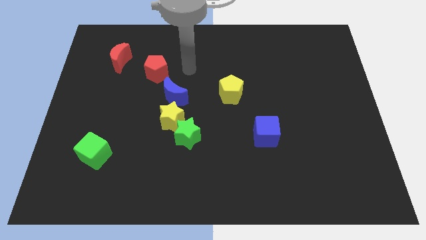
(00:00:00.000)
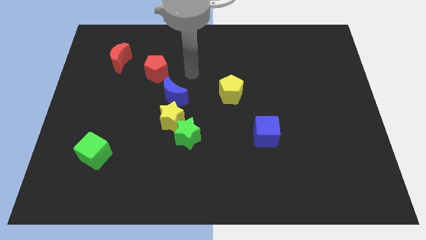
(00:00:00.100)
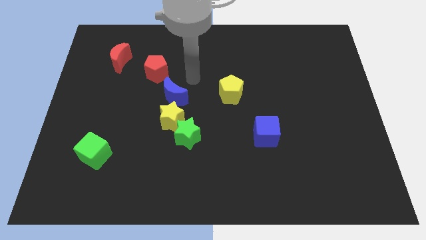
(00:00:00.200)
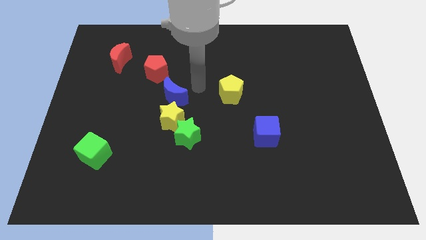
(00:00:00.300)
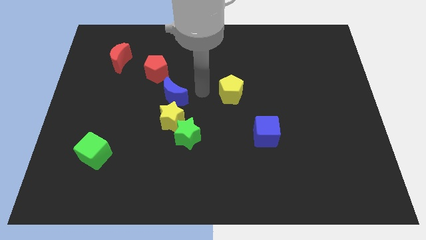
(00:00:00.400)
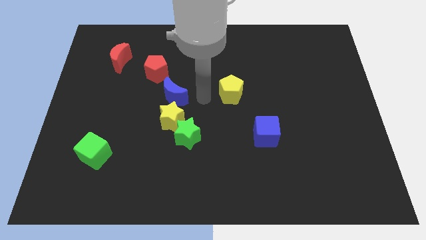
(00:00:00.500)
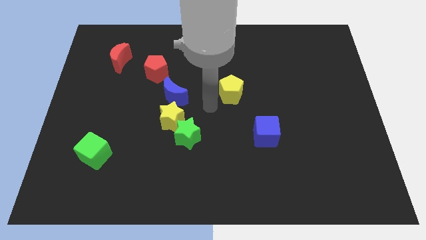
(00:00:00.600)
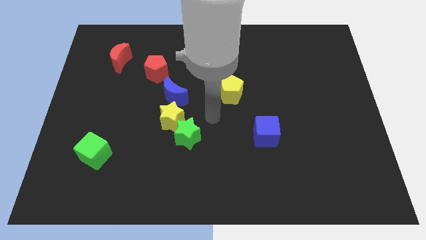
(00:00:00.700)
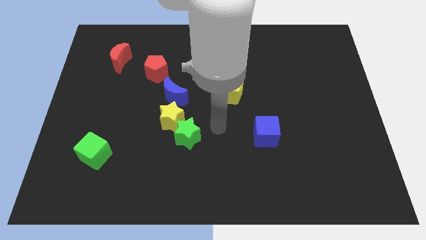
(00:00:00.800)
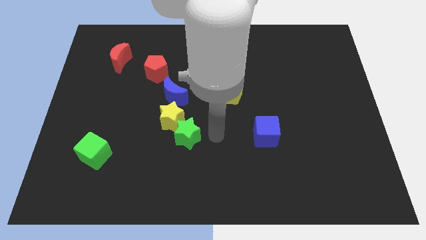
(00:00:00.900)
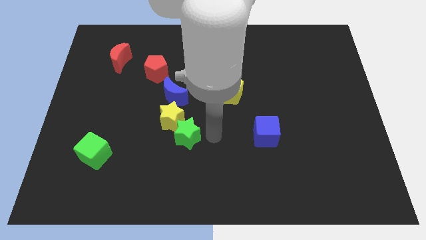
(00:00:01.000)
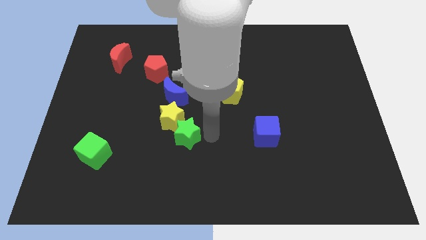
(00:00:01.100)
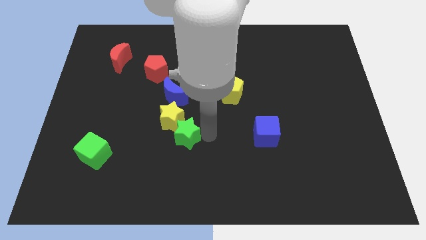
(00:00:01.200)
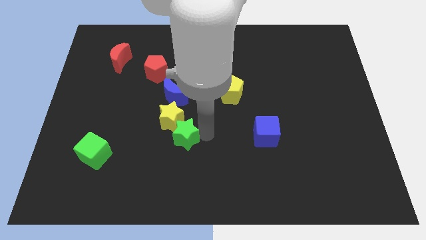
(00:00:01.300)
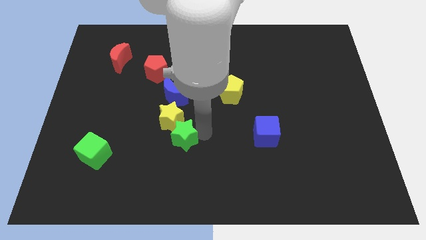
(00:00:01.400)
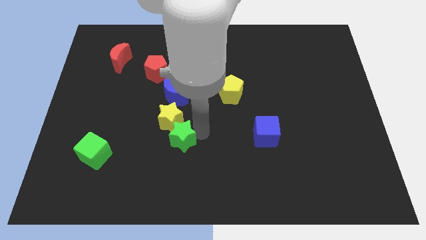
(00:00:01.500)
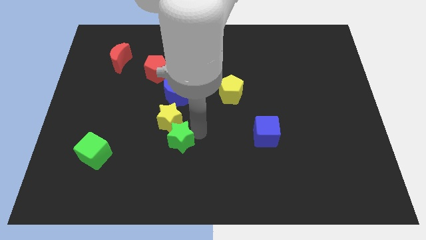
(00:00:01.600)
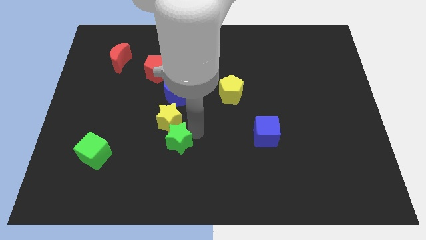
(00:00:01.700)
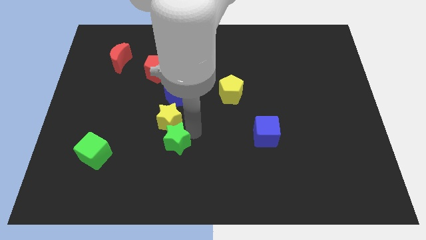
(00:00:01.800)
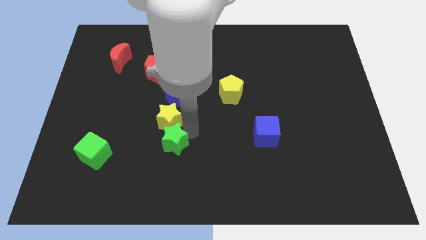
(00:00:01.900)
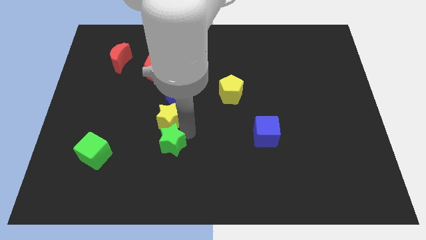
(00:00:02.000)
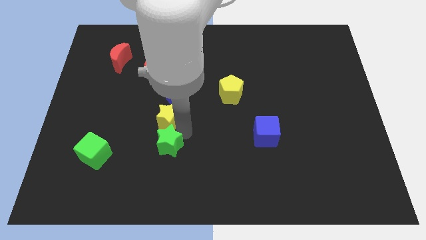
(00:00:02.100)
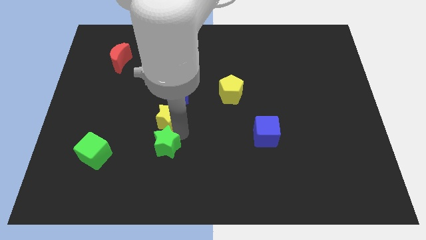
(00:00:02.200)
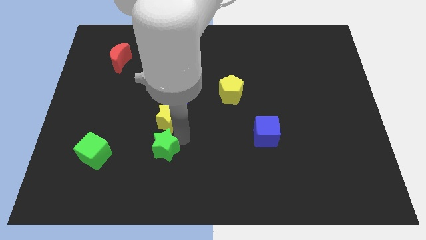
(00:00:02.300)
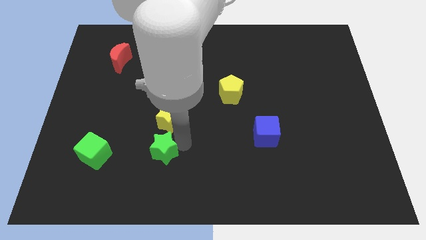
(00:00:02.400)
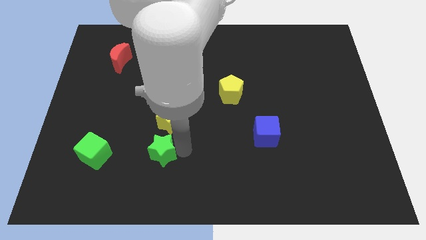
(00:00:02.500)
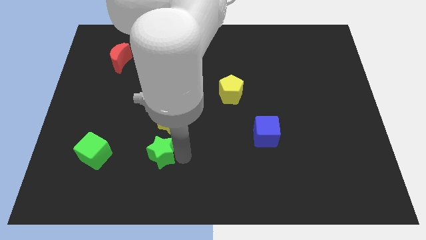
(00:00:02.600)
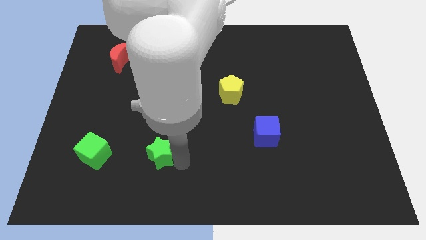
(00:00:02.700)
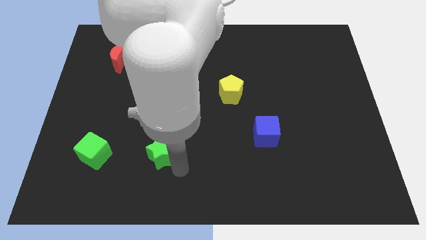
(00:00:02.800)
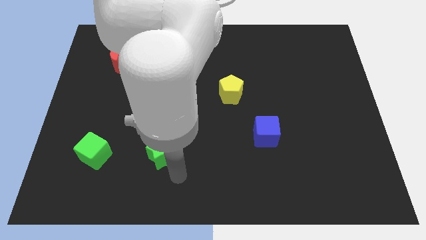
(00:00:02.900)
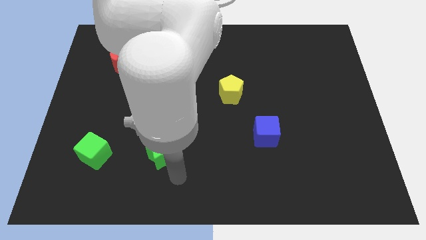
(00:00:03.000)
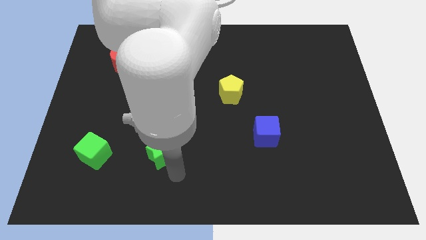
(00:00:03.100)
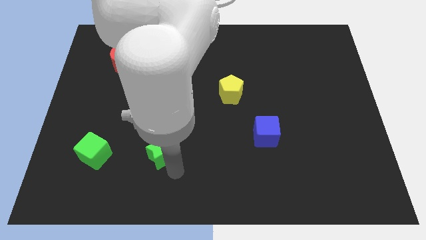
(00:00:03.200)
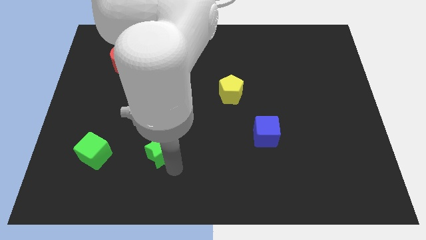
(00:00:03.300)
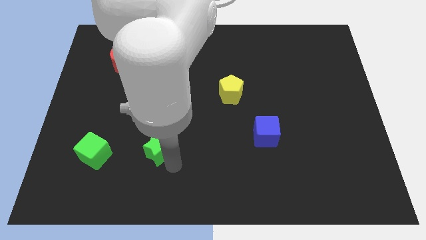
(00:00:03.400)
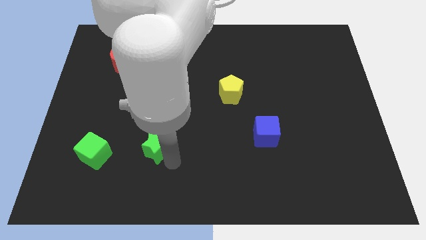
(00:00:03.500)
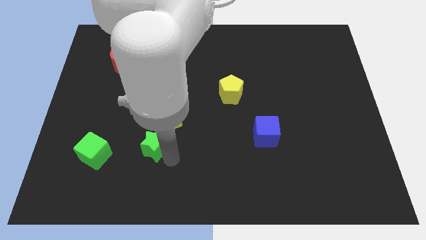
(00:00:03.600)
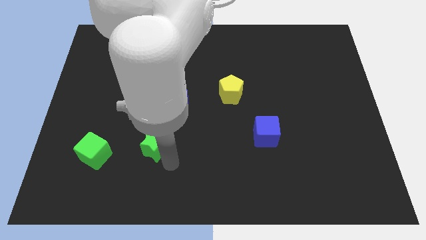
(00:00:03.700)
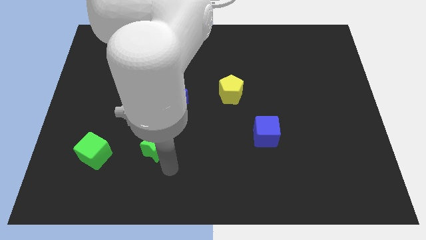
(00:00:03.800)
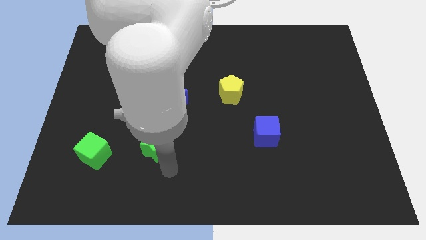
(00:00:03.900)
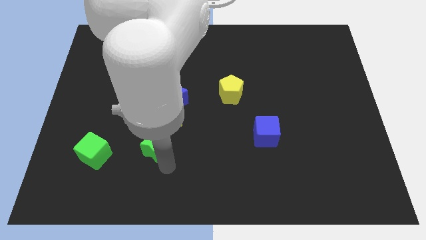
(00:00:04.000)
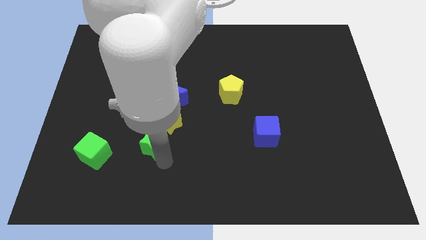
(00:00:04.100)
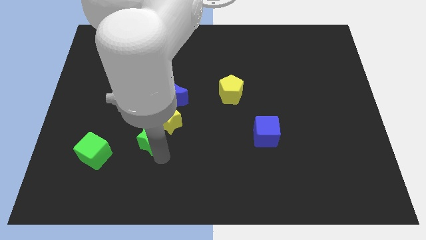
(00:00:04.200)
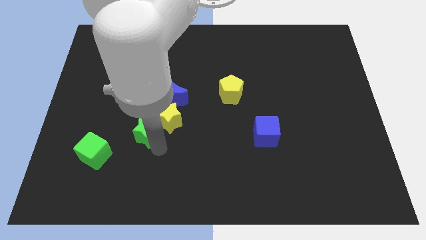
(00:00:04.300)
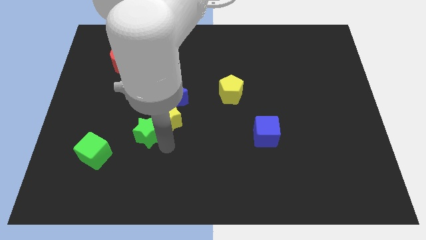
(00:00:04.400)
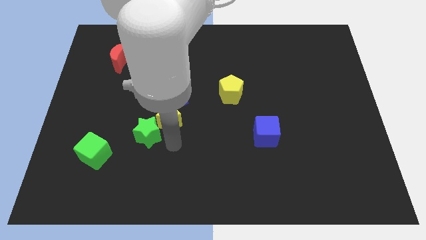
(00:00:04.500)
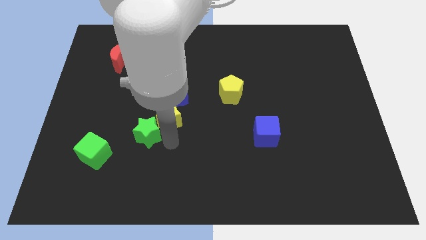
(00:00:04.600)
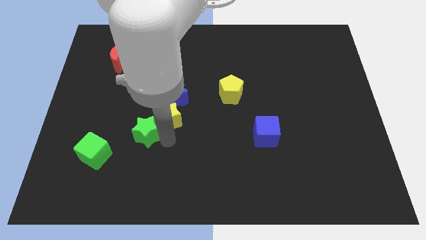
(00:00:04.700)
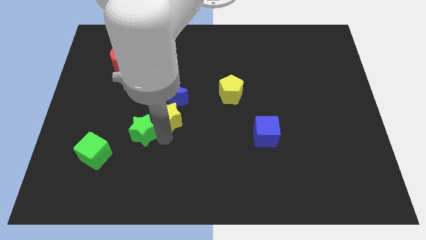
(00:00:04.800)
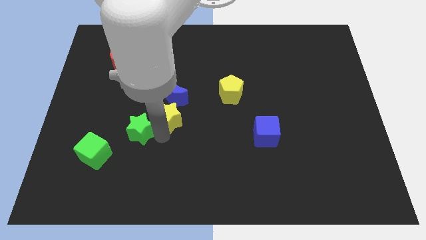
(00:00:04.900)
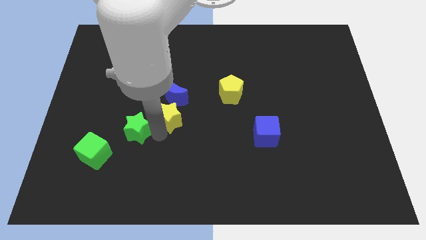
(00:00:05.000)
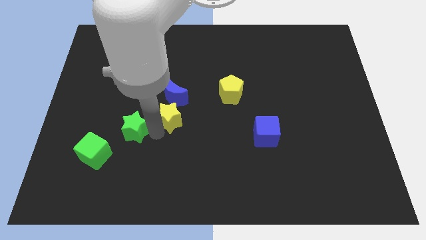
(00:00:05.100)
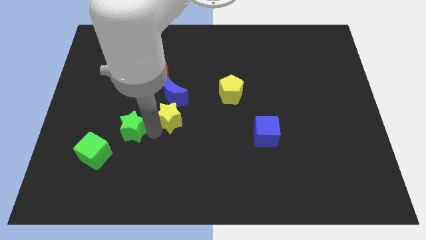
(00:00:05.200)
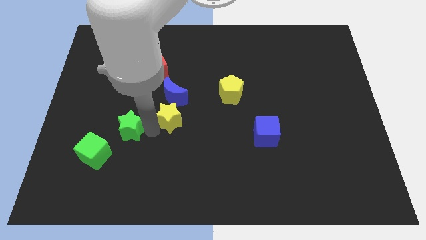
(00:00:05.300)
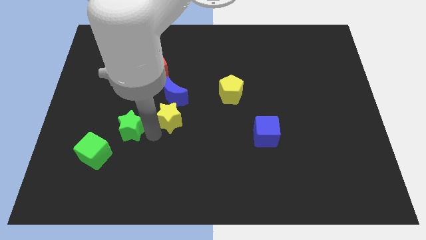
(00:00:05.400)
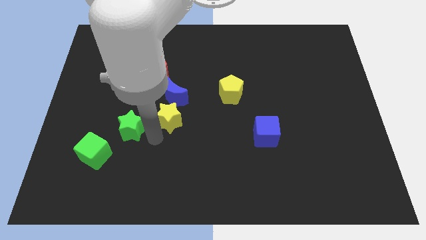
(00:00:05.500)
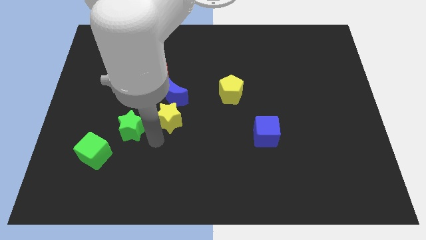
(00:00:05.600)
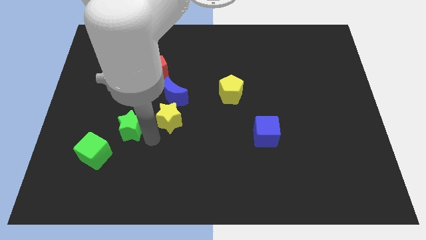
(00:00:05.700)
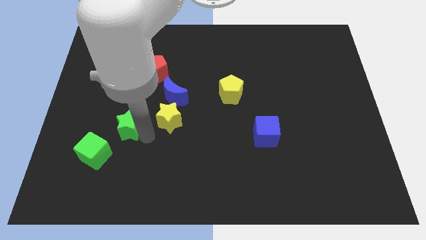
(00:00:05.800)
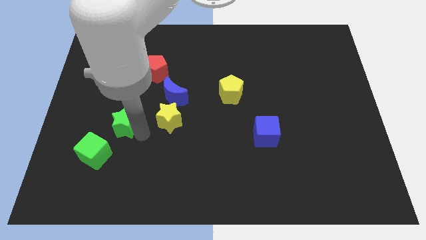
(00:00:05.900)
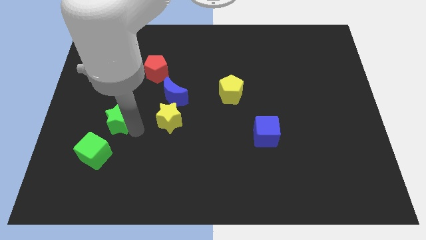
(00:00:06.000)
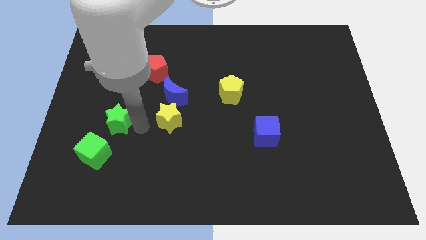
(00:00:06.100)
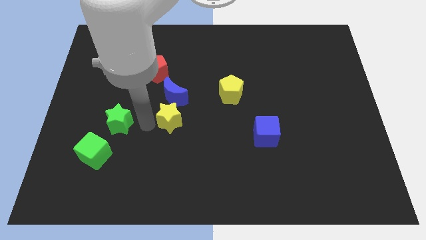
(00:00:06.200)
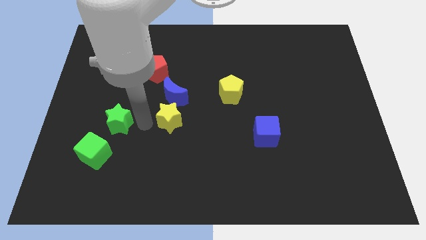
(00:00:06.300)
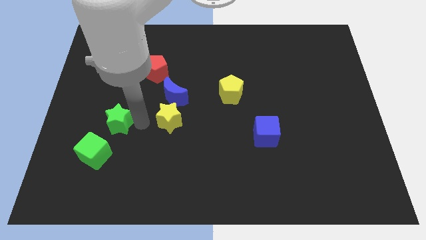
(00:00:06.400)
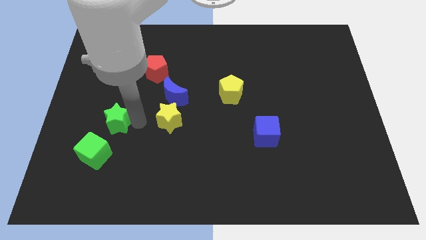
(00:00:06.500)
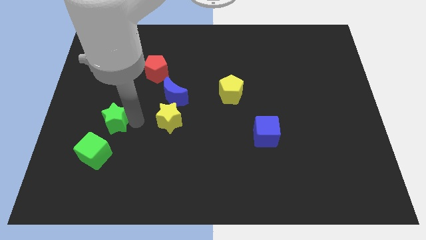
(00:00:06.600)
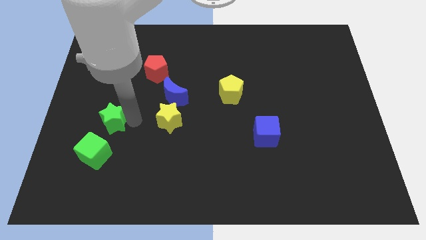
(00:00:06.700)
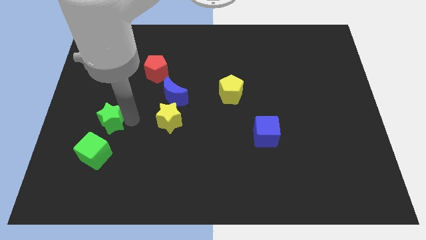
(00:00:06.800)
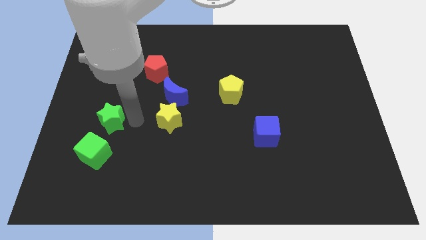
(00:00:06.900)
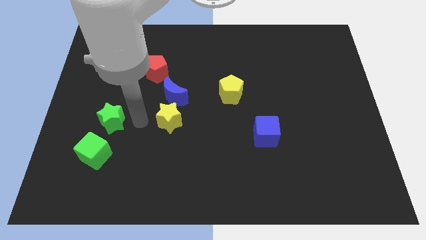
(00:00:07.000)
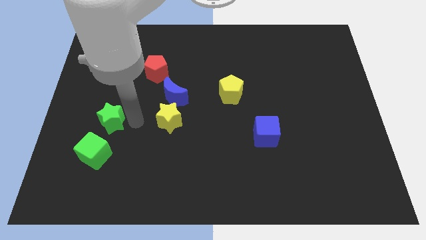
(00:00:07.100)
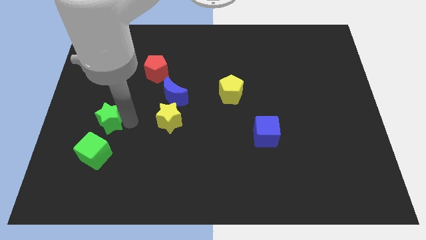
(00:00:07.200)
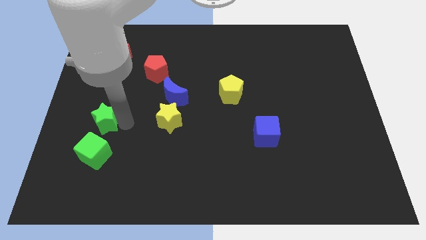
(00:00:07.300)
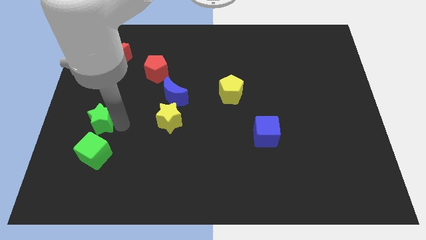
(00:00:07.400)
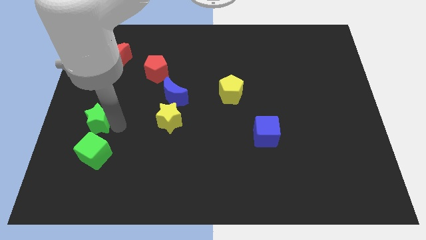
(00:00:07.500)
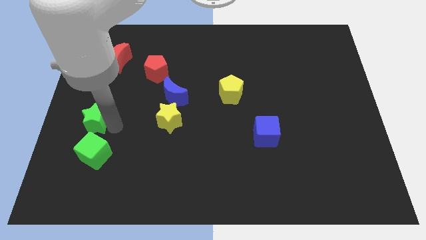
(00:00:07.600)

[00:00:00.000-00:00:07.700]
push the green star to the center left
